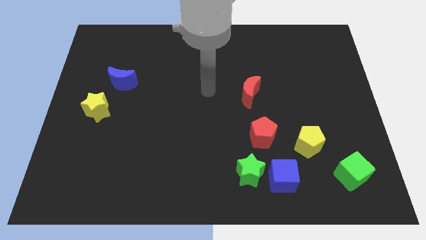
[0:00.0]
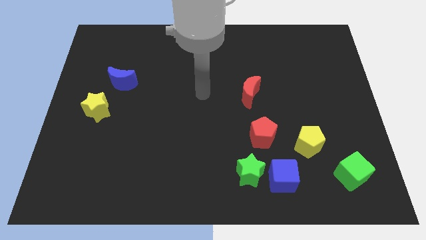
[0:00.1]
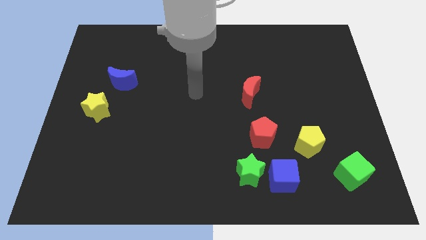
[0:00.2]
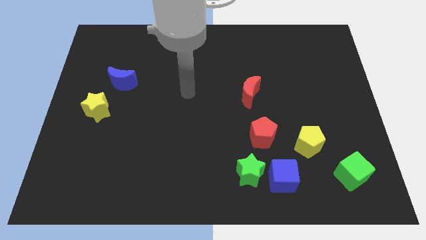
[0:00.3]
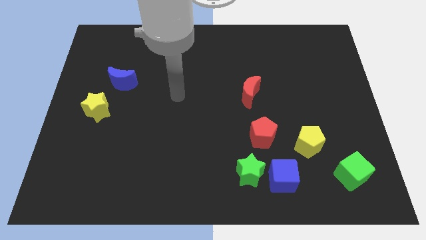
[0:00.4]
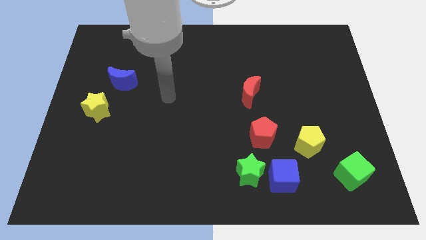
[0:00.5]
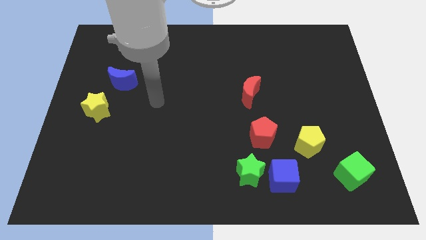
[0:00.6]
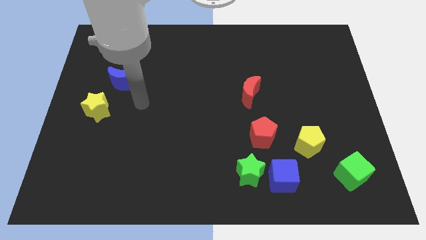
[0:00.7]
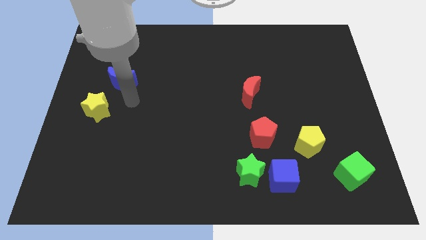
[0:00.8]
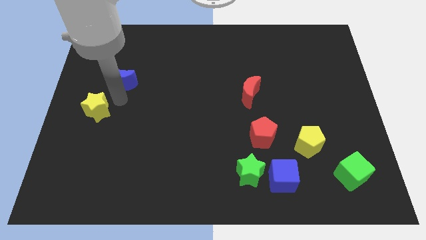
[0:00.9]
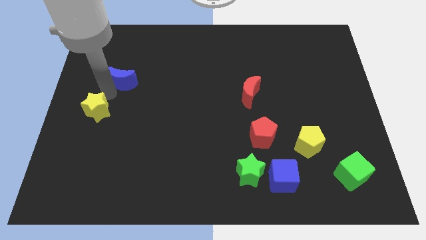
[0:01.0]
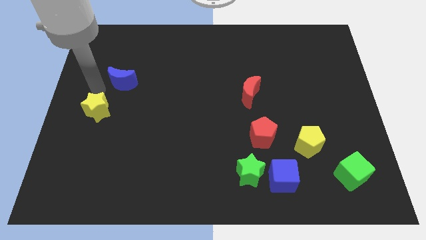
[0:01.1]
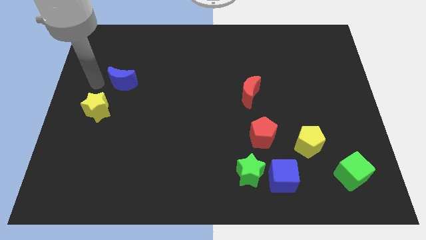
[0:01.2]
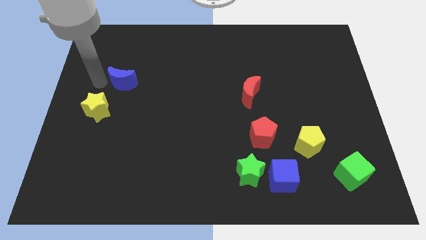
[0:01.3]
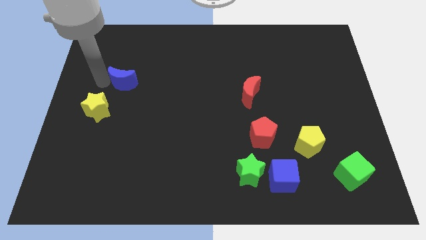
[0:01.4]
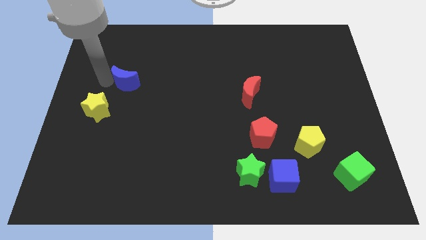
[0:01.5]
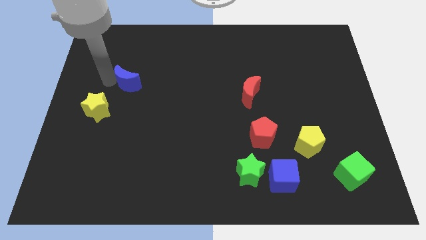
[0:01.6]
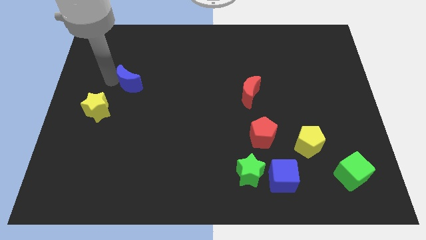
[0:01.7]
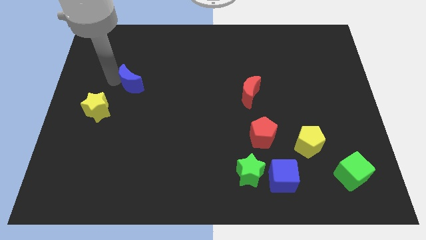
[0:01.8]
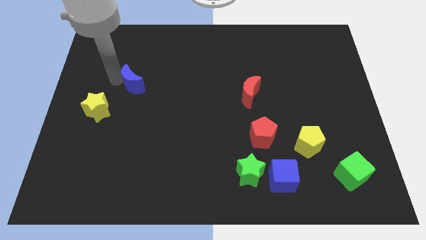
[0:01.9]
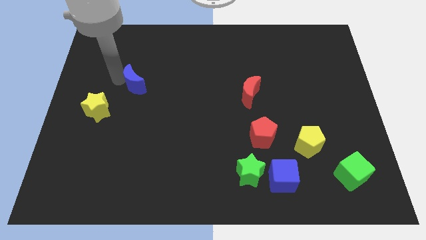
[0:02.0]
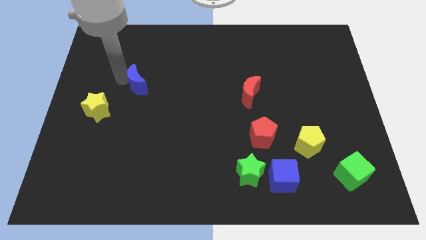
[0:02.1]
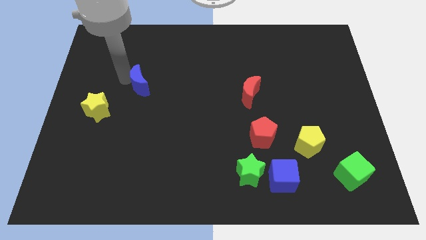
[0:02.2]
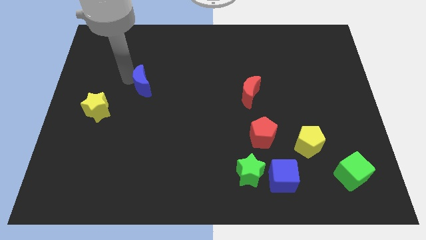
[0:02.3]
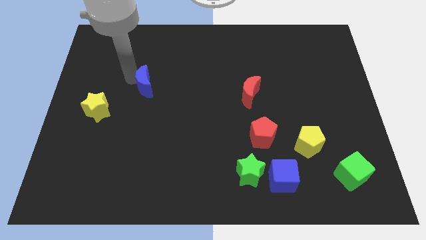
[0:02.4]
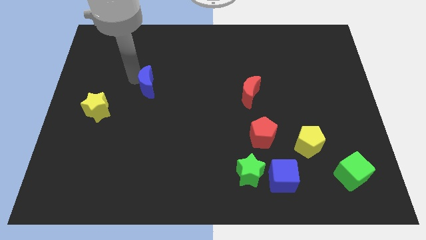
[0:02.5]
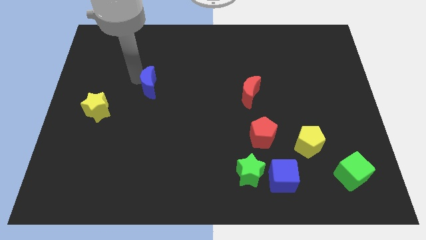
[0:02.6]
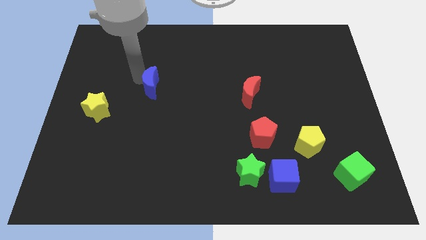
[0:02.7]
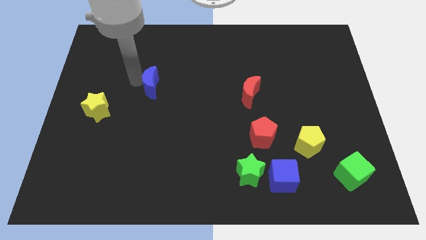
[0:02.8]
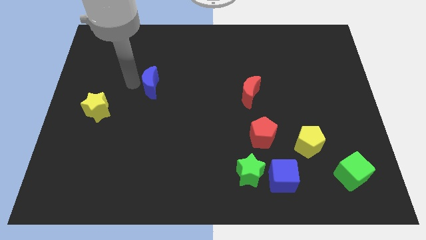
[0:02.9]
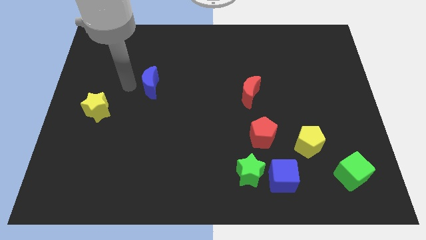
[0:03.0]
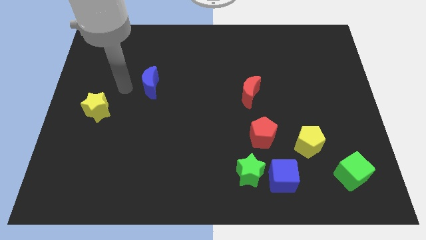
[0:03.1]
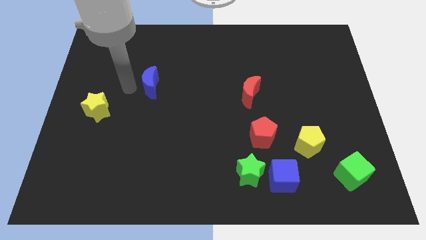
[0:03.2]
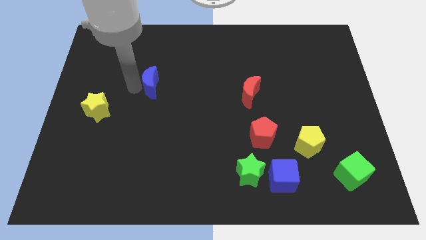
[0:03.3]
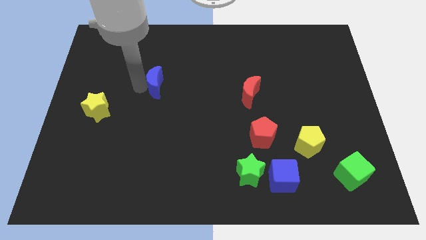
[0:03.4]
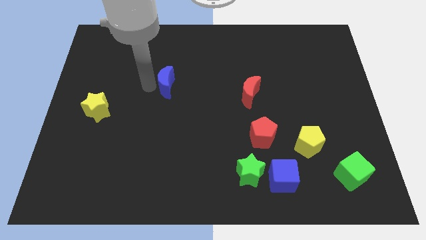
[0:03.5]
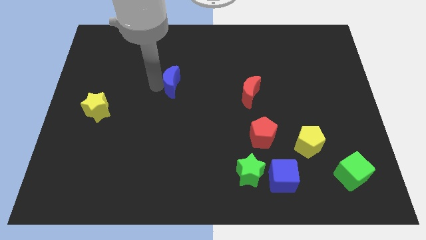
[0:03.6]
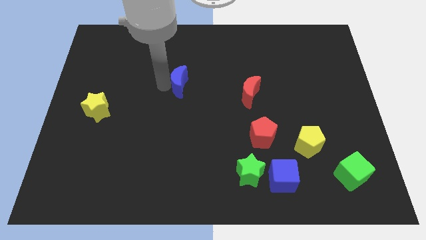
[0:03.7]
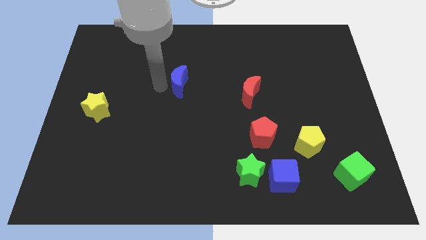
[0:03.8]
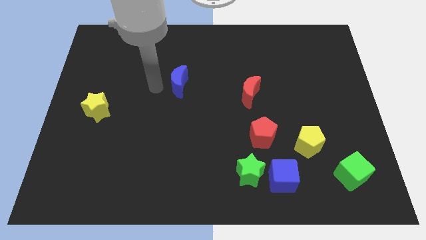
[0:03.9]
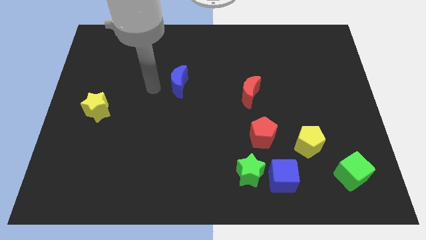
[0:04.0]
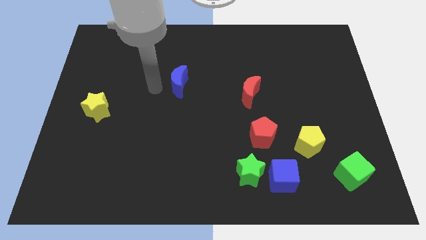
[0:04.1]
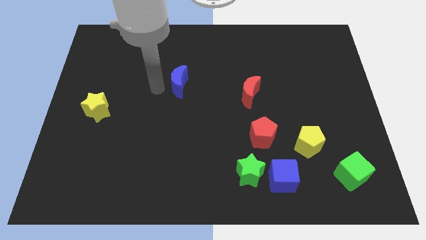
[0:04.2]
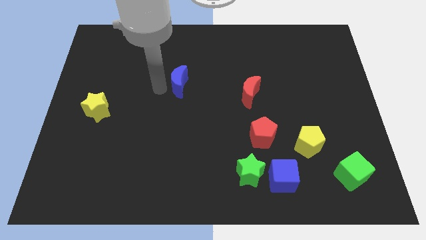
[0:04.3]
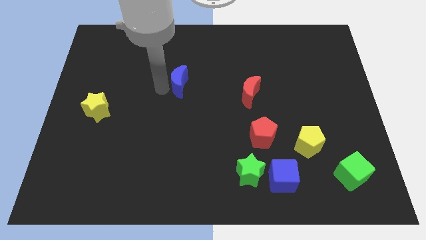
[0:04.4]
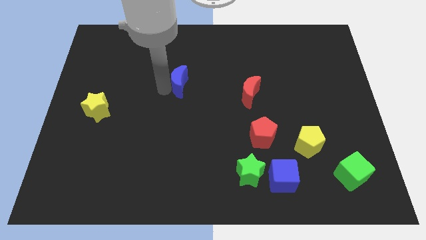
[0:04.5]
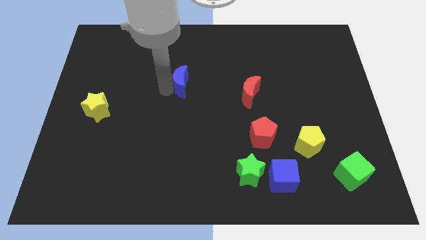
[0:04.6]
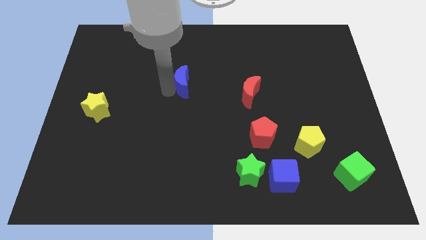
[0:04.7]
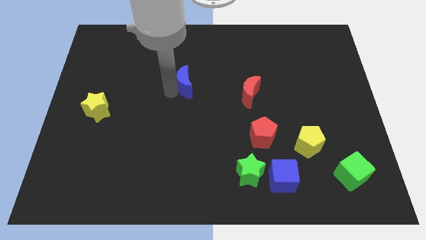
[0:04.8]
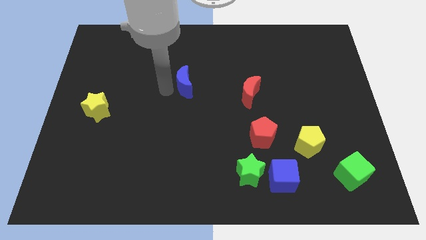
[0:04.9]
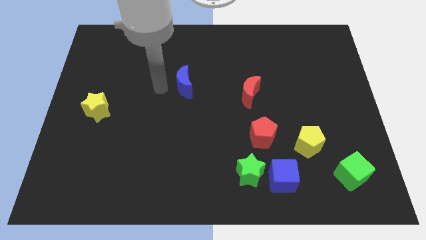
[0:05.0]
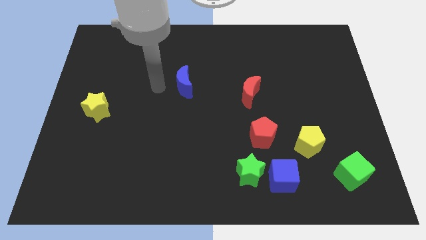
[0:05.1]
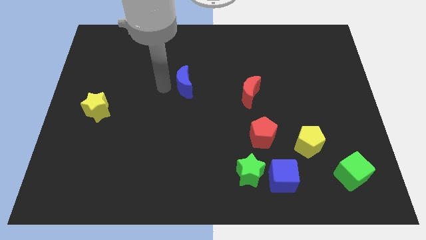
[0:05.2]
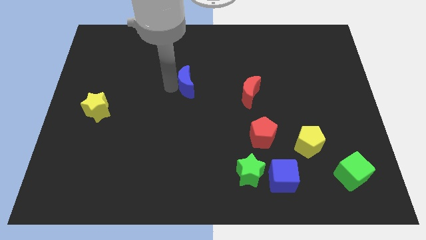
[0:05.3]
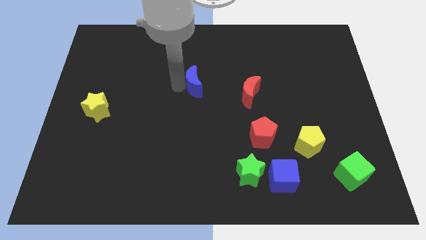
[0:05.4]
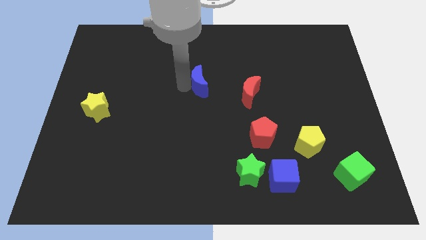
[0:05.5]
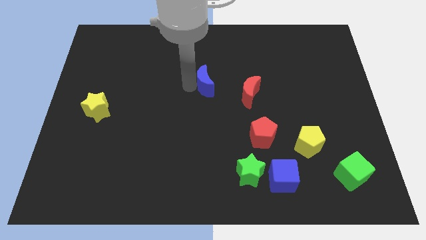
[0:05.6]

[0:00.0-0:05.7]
push the blue moon right

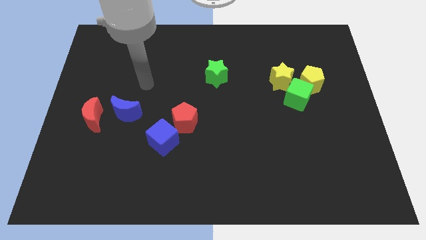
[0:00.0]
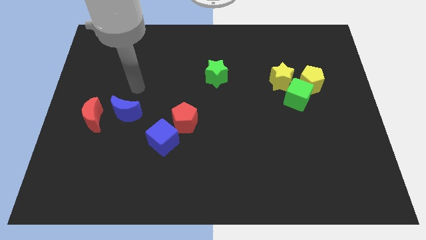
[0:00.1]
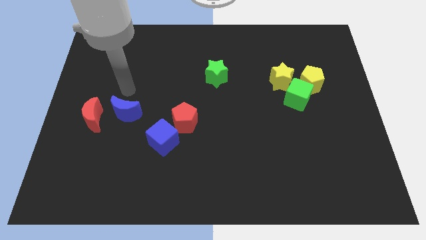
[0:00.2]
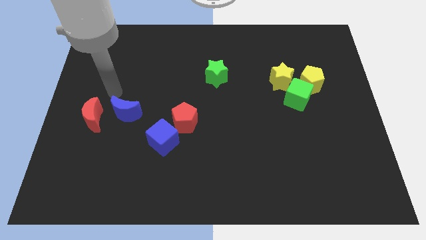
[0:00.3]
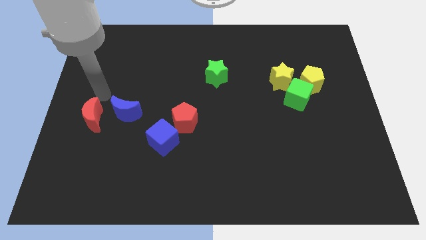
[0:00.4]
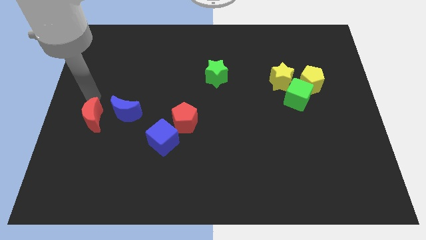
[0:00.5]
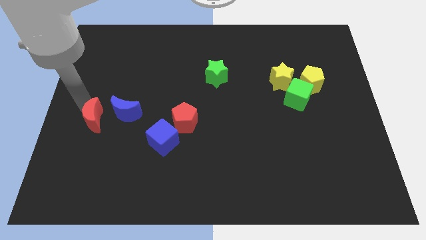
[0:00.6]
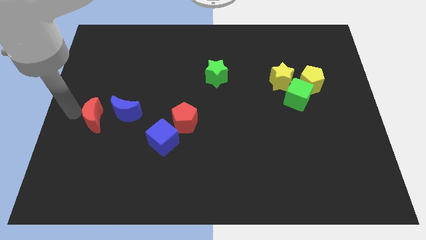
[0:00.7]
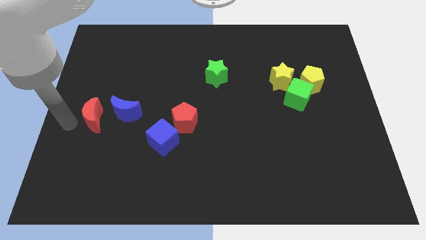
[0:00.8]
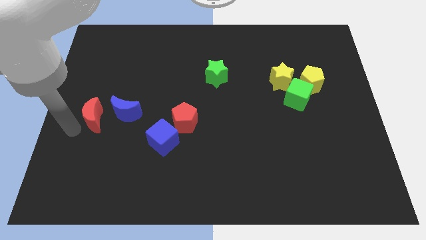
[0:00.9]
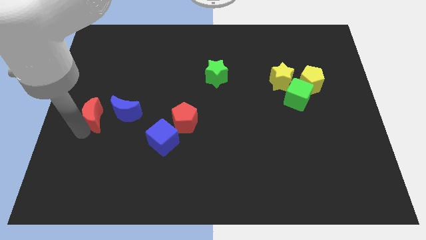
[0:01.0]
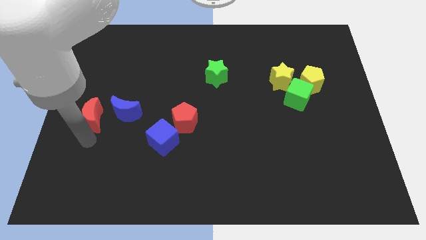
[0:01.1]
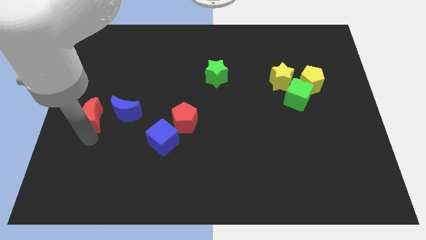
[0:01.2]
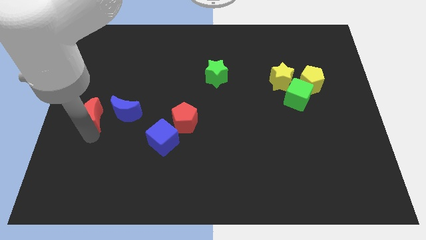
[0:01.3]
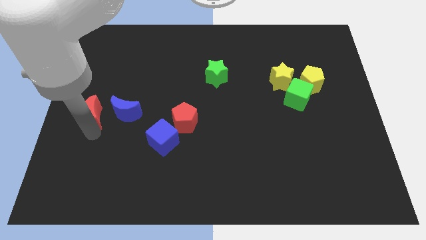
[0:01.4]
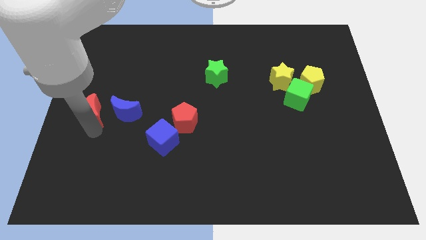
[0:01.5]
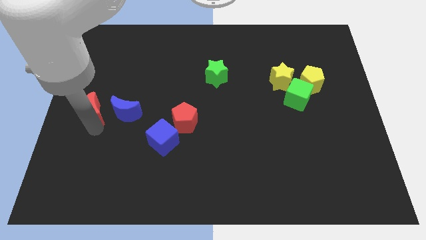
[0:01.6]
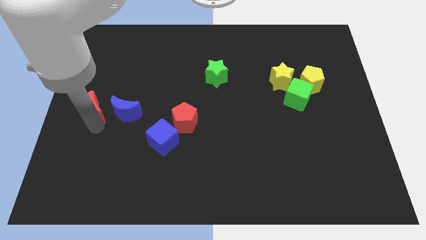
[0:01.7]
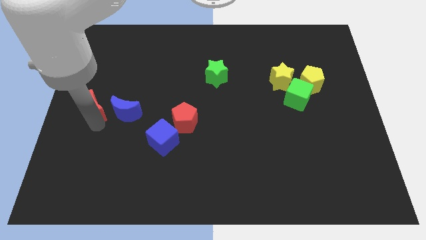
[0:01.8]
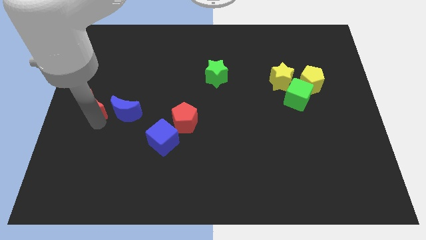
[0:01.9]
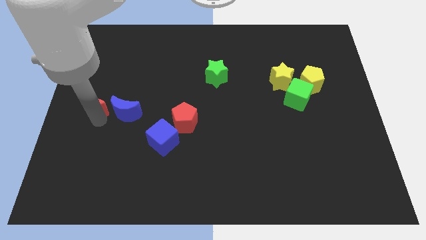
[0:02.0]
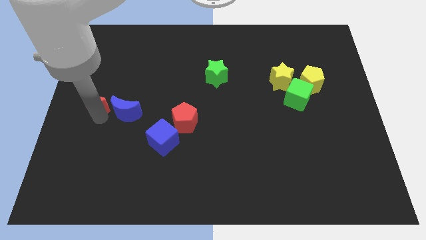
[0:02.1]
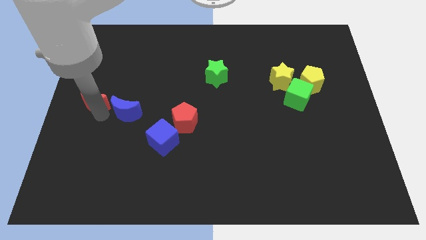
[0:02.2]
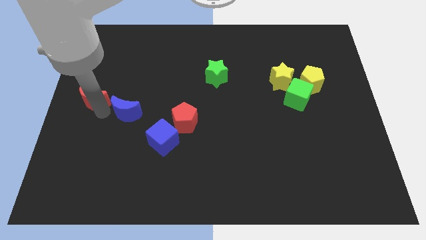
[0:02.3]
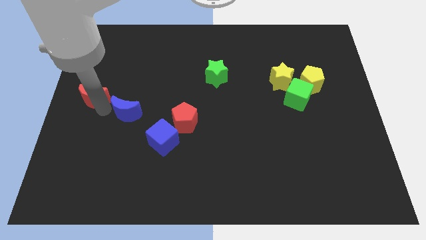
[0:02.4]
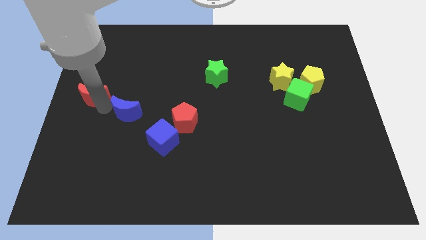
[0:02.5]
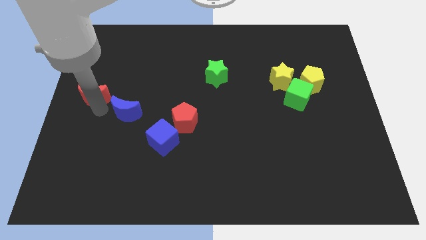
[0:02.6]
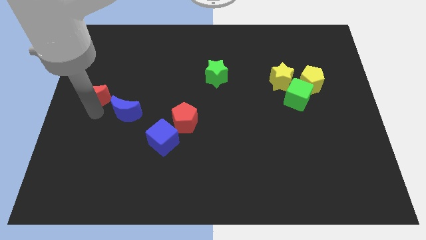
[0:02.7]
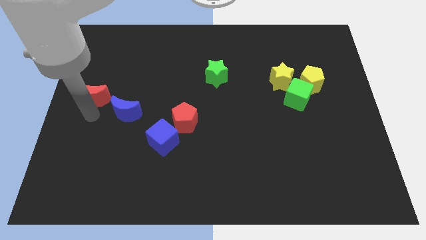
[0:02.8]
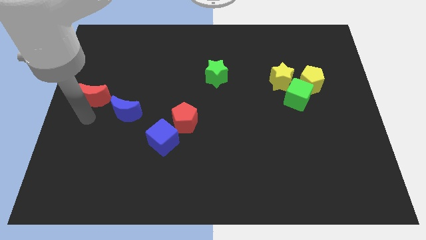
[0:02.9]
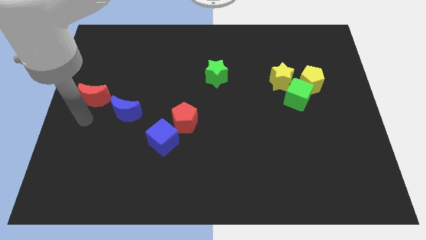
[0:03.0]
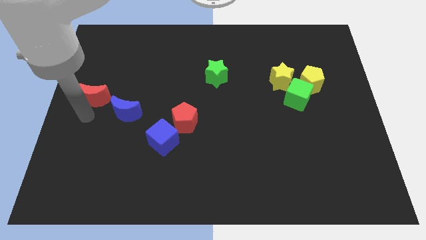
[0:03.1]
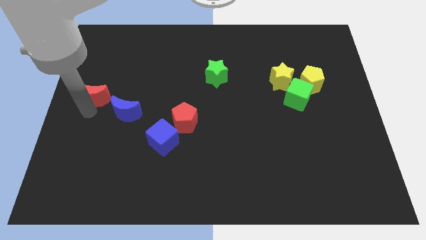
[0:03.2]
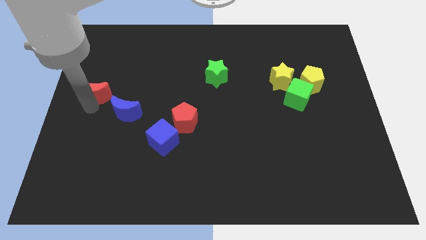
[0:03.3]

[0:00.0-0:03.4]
push the red moon a bit upwards
